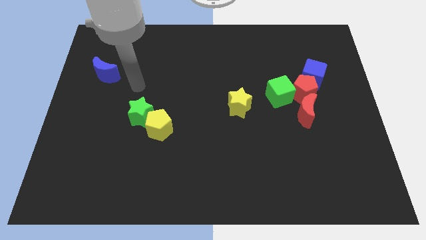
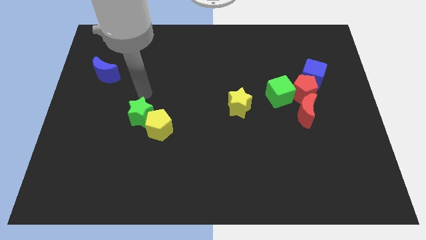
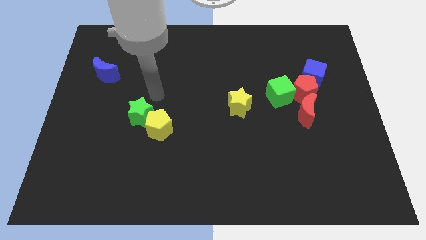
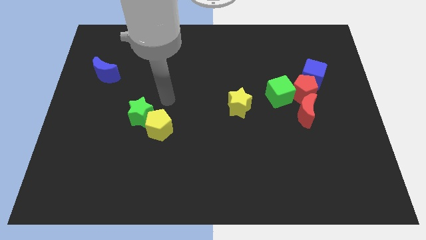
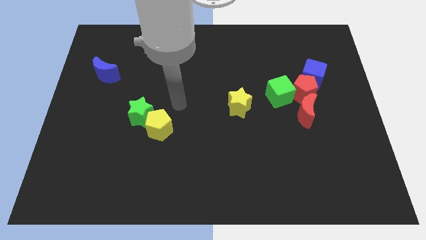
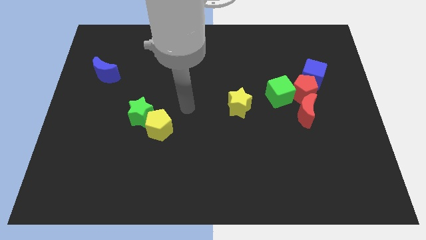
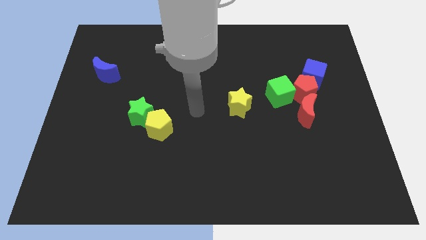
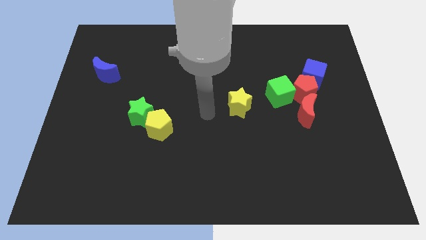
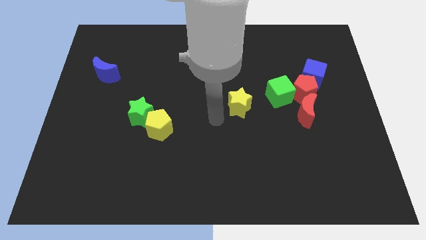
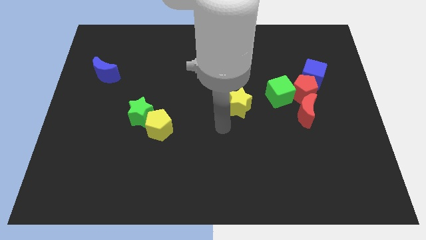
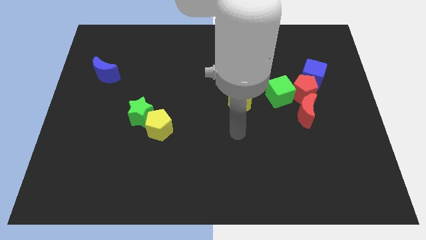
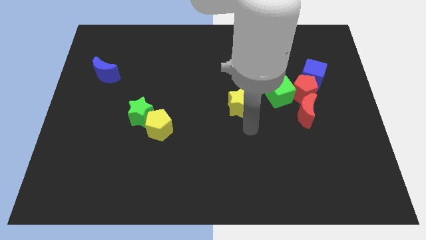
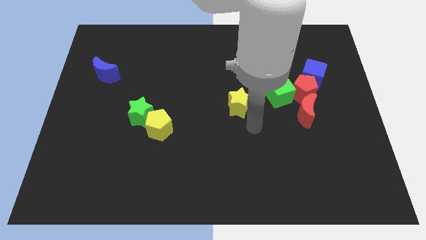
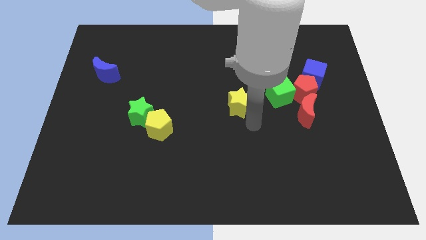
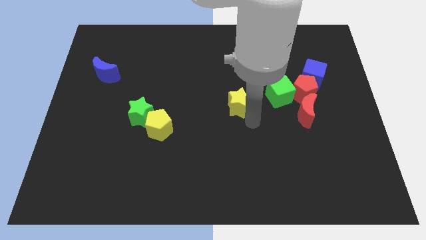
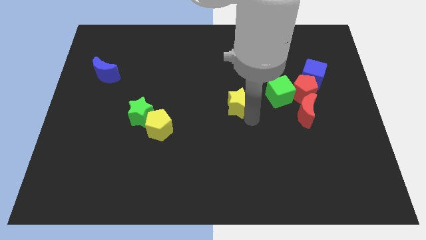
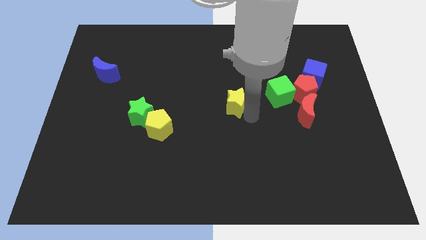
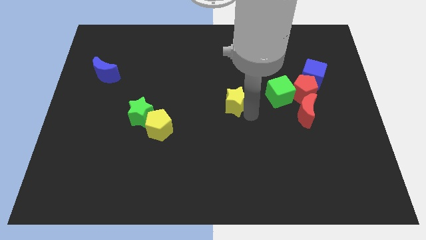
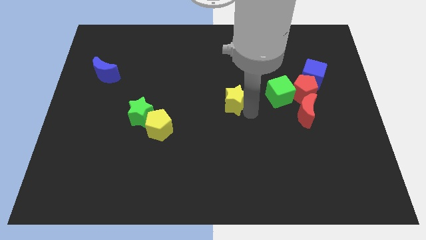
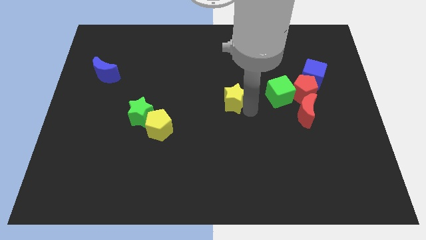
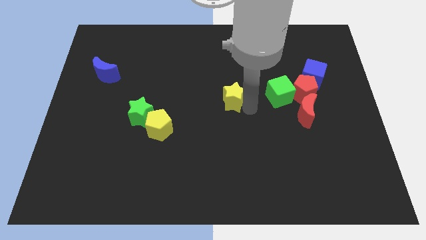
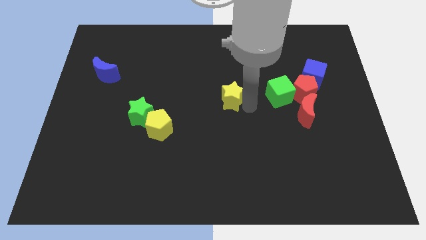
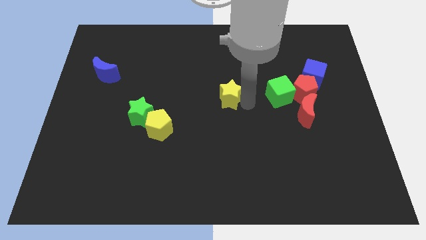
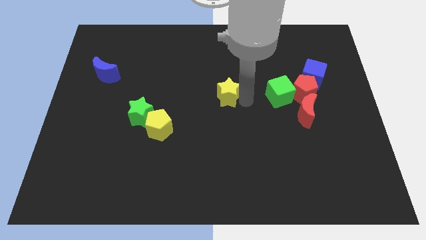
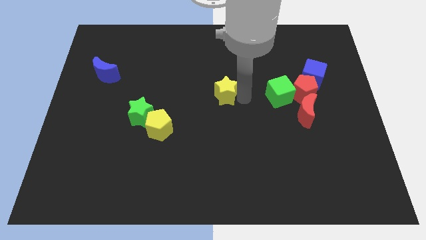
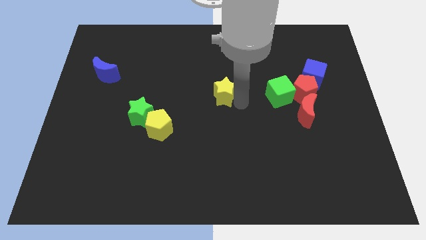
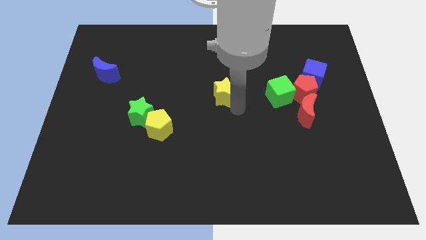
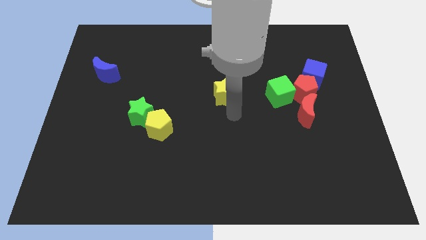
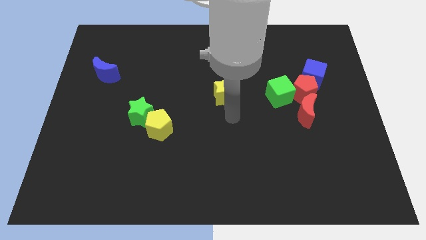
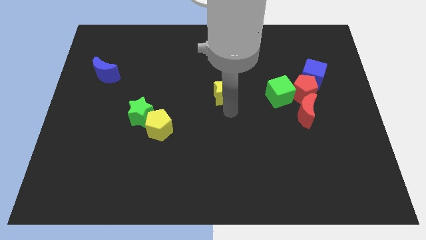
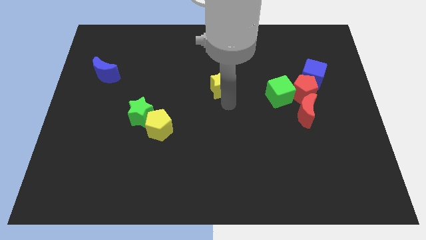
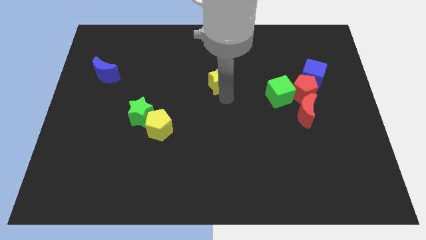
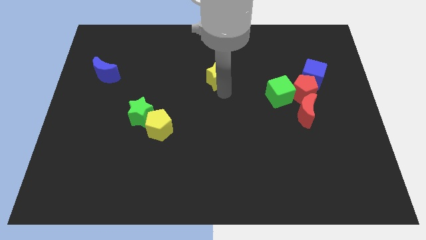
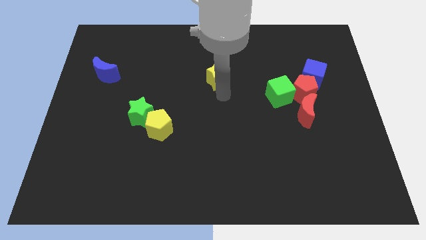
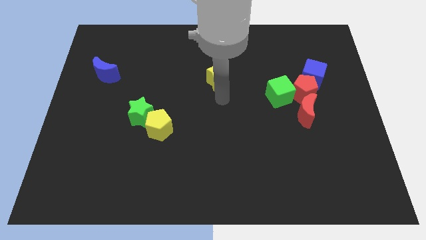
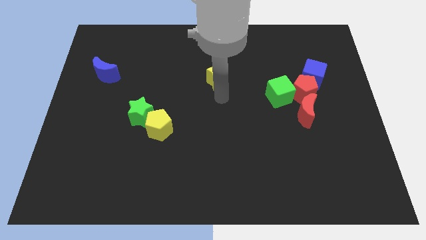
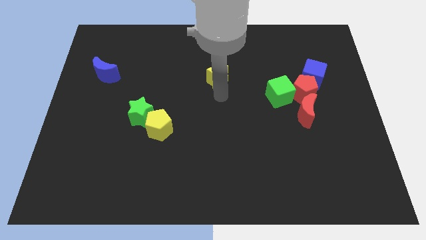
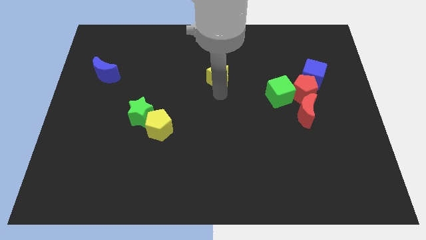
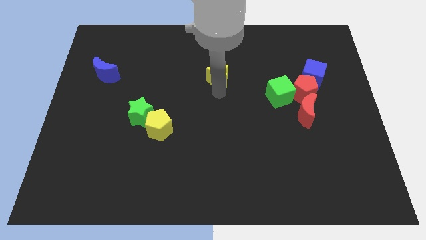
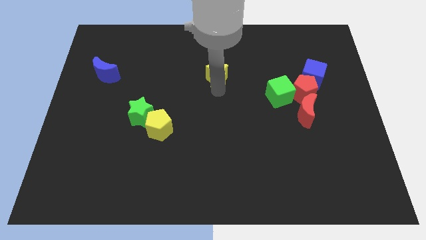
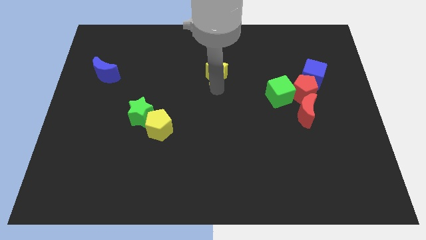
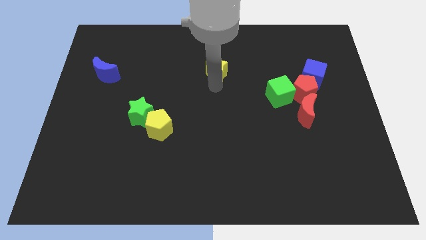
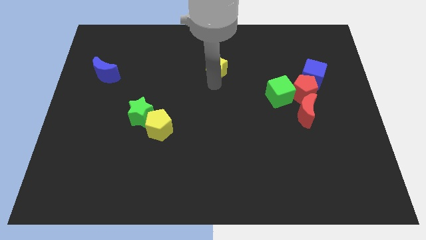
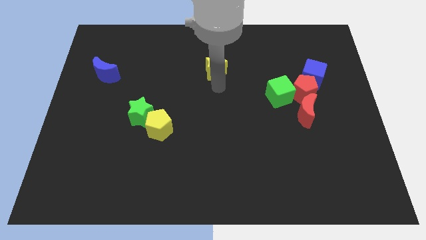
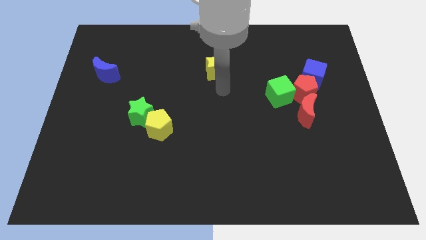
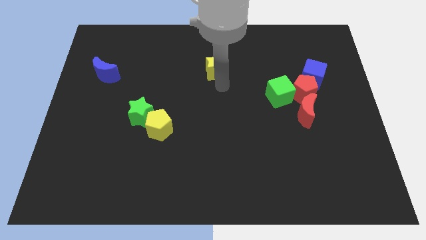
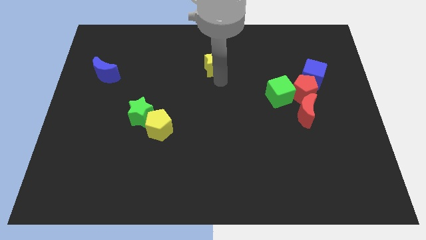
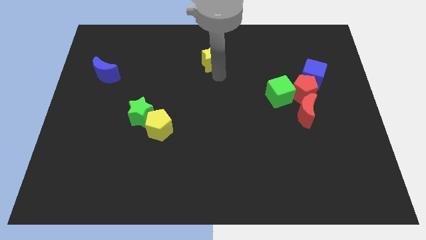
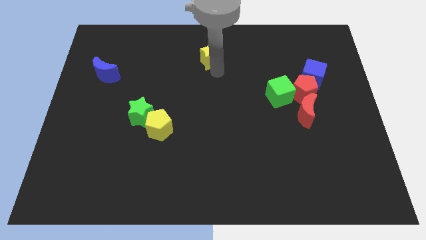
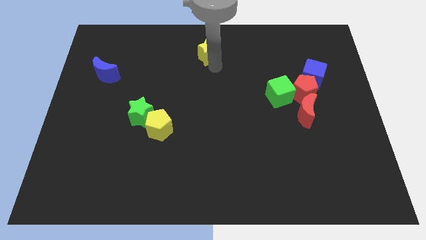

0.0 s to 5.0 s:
slide the yellow star to the top side

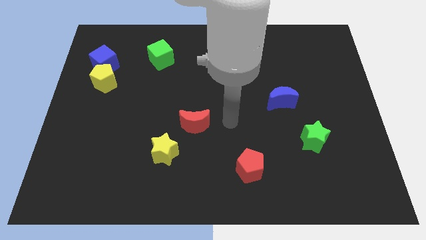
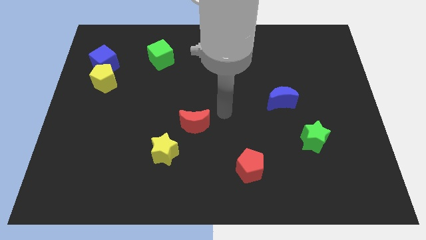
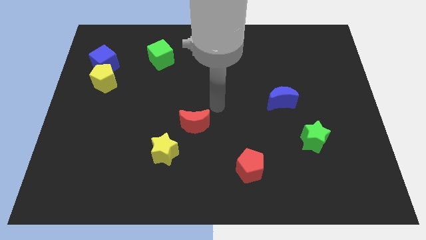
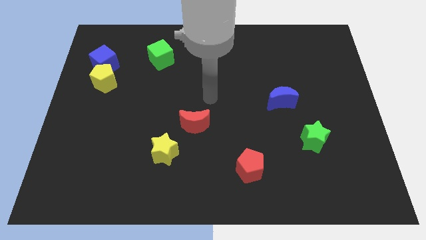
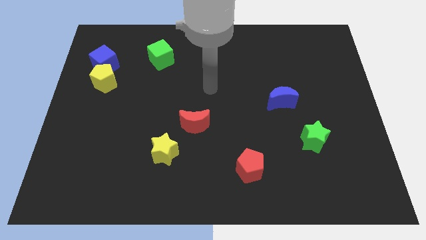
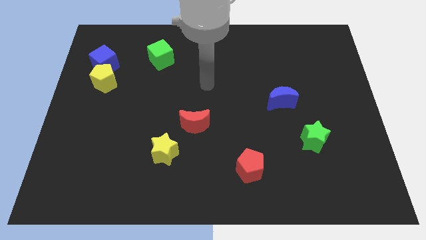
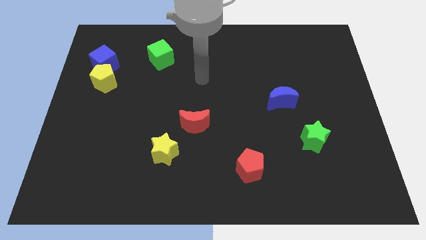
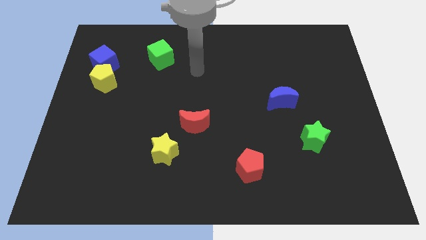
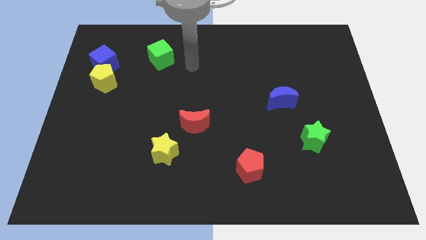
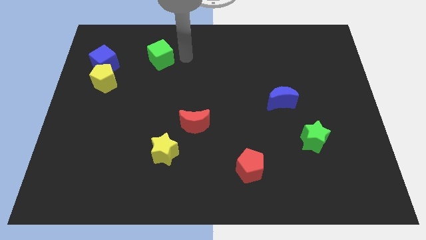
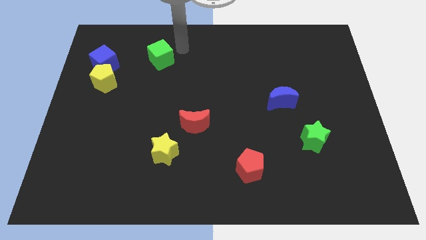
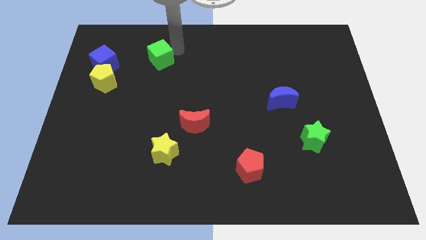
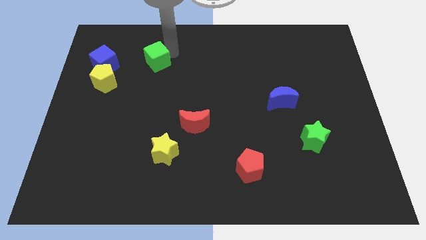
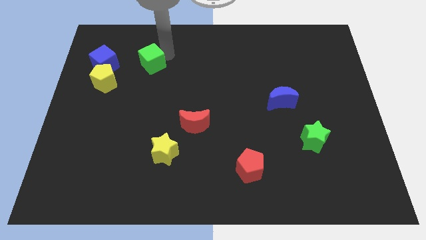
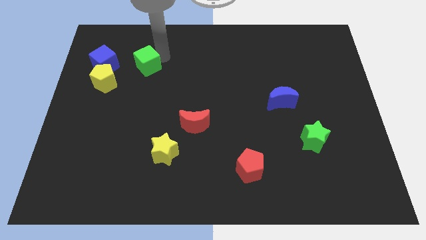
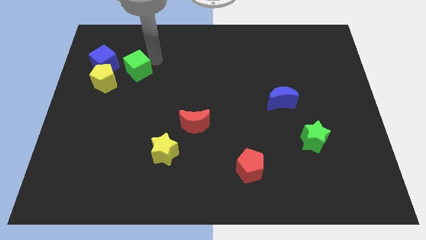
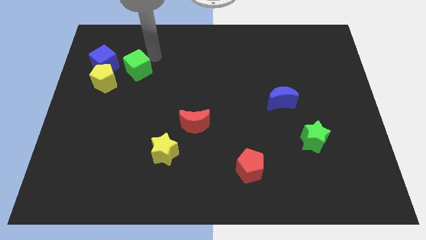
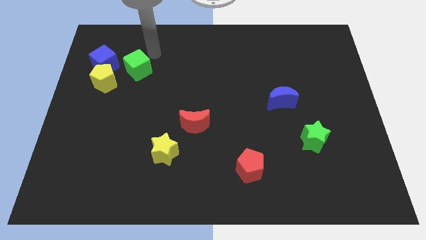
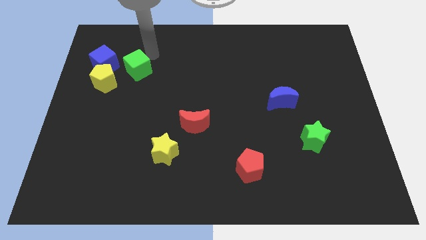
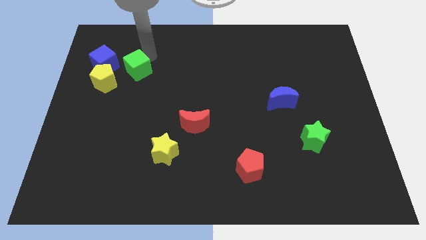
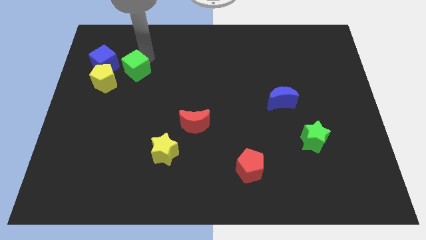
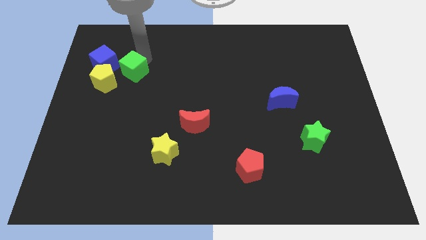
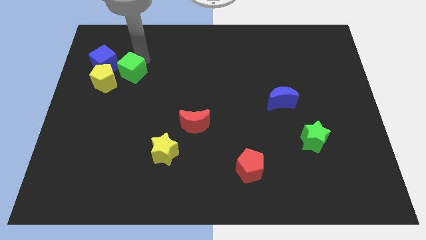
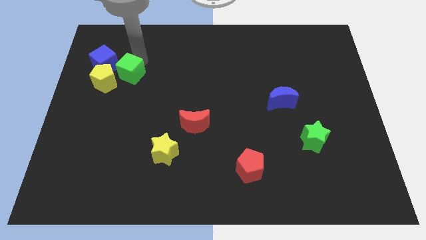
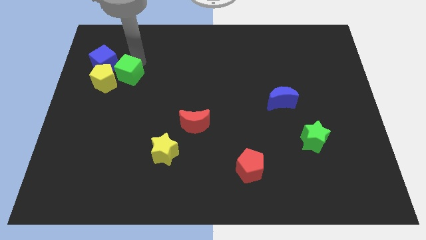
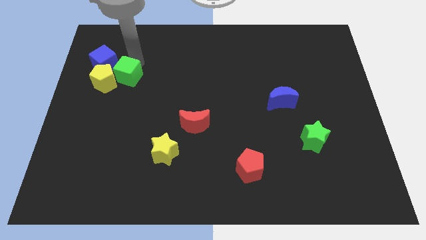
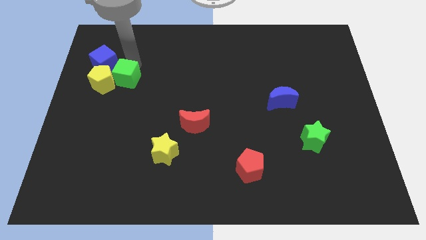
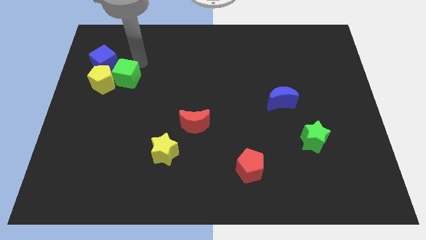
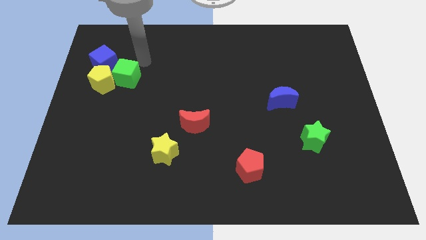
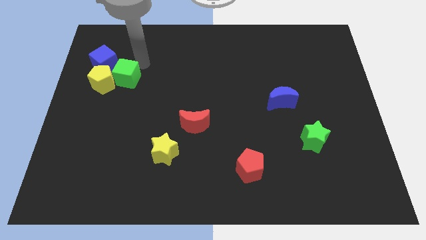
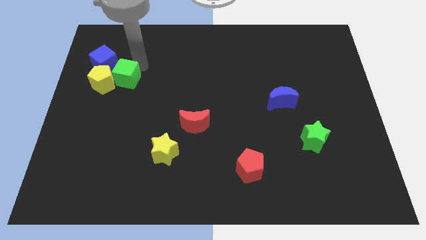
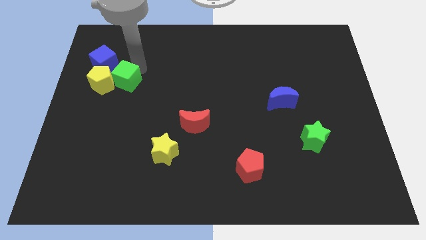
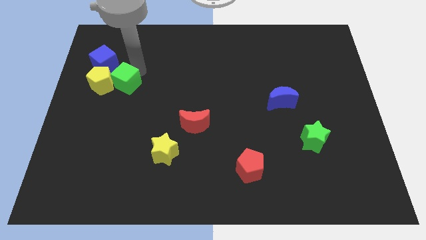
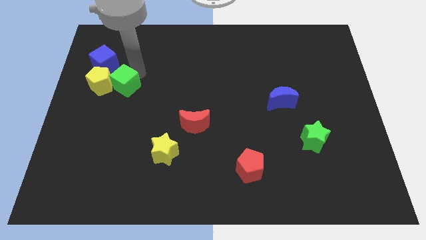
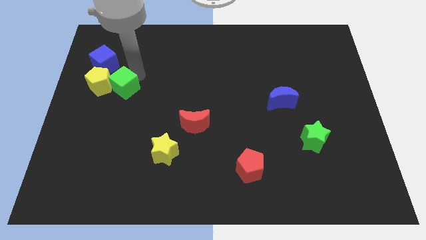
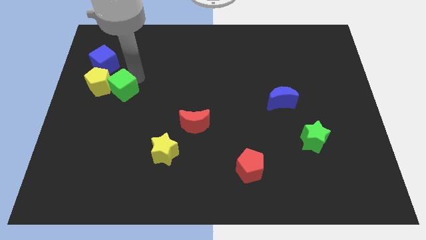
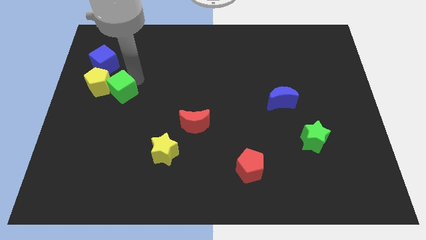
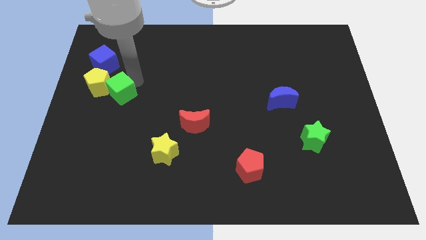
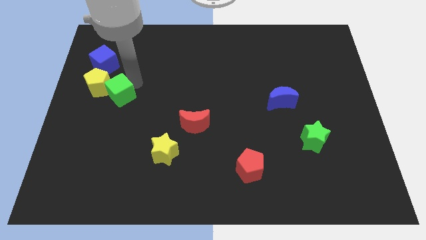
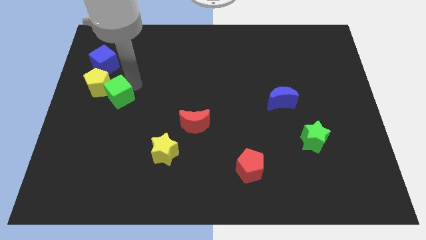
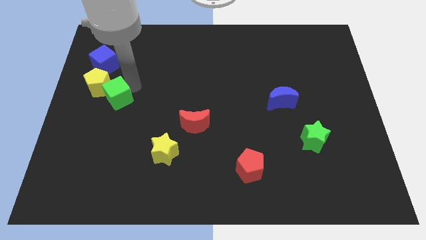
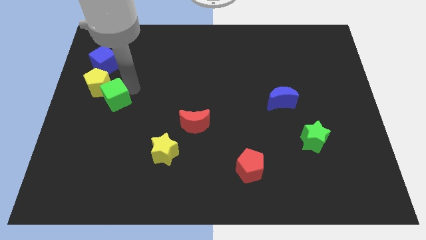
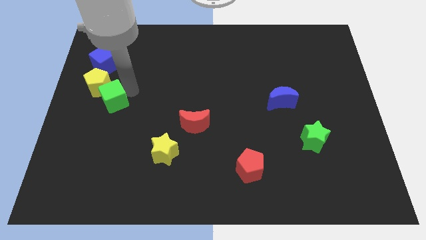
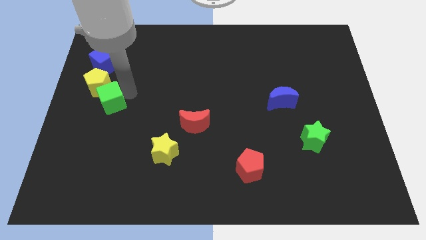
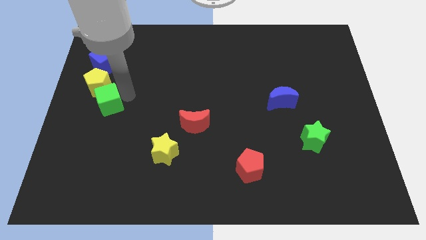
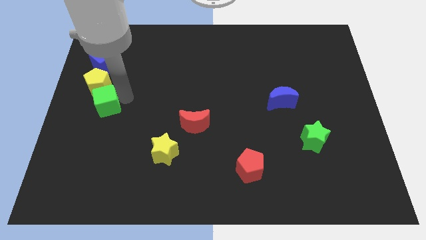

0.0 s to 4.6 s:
put the green cube to the center left
